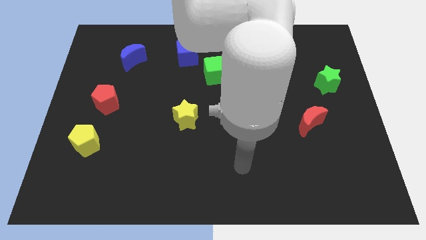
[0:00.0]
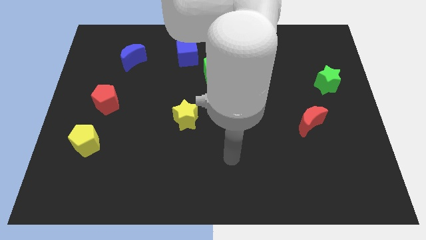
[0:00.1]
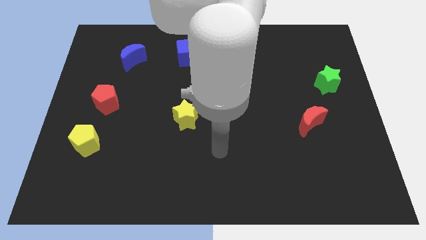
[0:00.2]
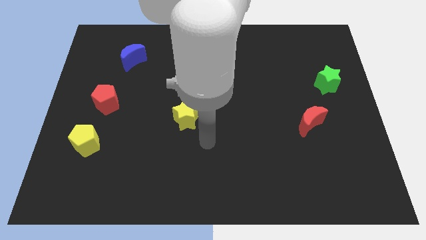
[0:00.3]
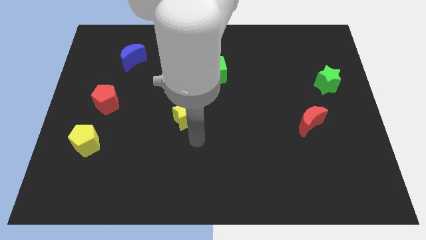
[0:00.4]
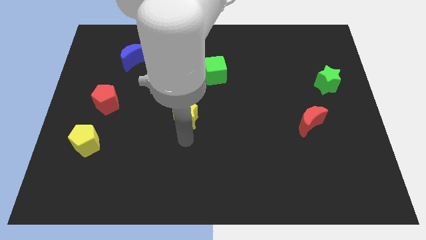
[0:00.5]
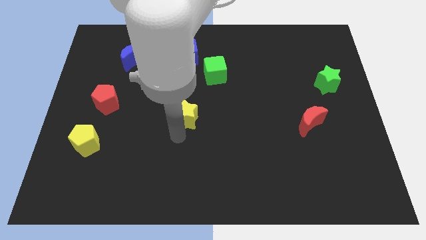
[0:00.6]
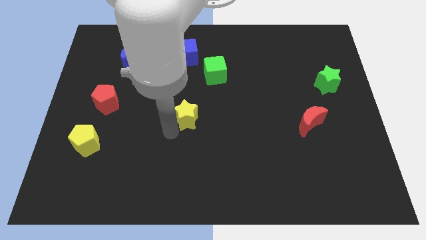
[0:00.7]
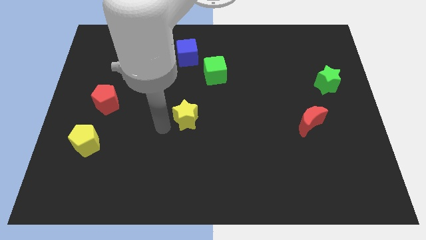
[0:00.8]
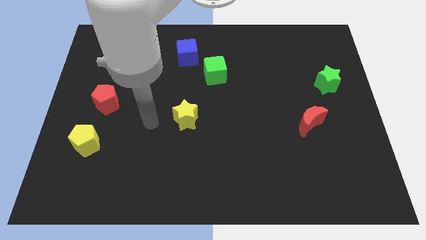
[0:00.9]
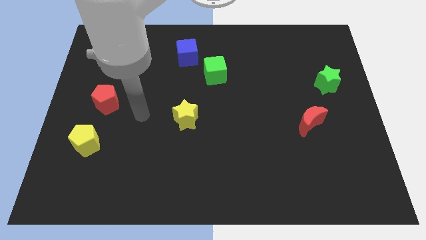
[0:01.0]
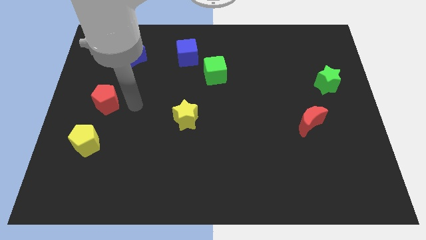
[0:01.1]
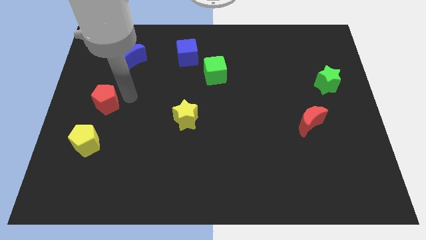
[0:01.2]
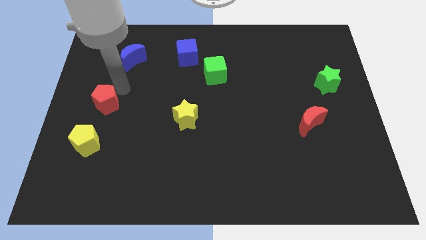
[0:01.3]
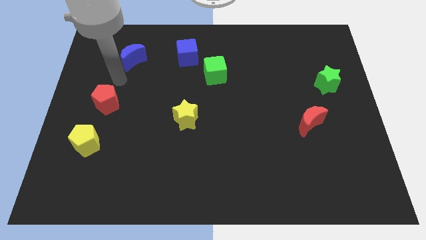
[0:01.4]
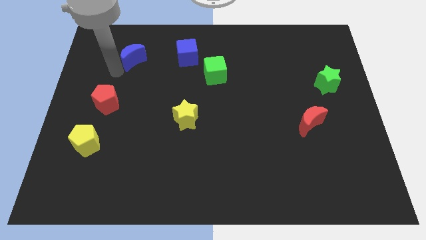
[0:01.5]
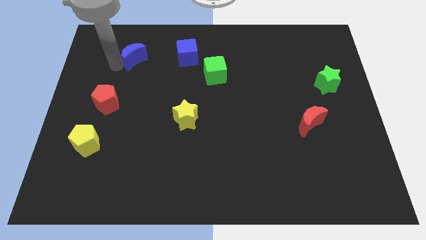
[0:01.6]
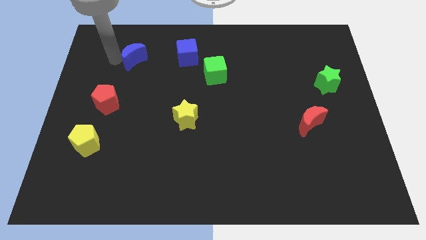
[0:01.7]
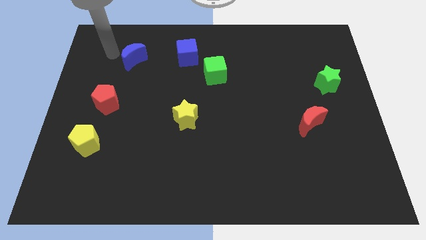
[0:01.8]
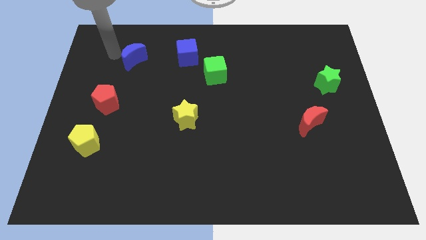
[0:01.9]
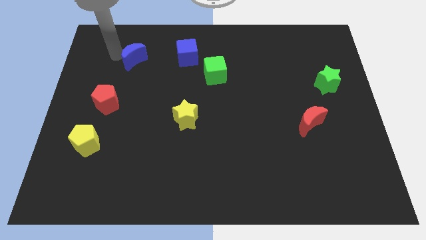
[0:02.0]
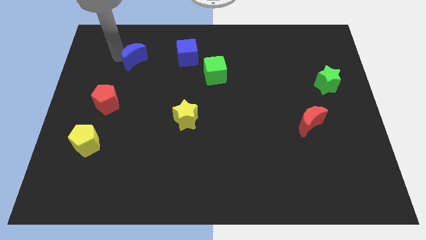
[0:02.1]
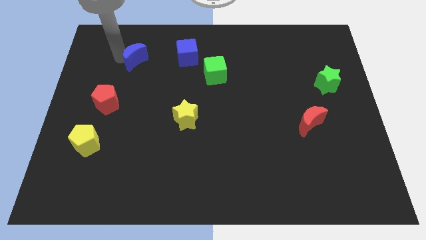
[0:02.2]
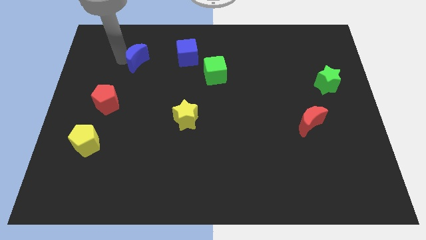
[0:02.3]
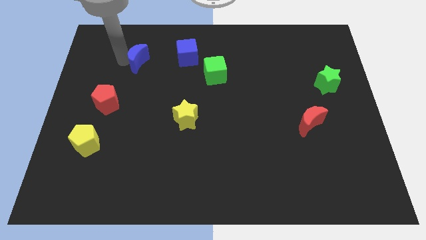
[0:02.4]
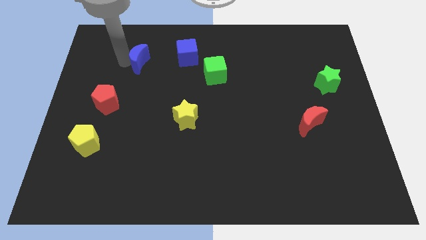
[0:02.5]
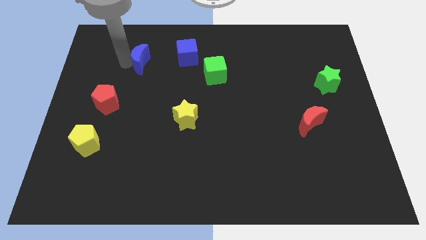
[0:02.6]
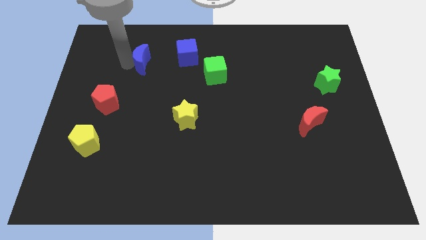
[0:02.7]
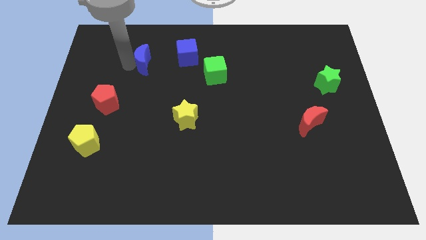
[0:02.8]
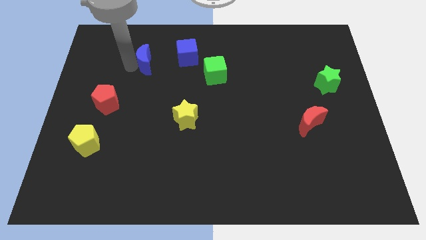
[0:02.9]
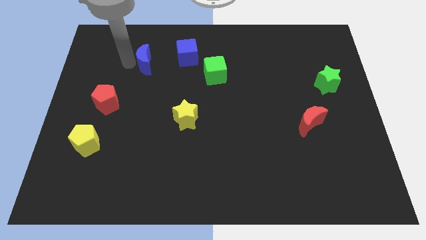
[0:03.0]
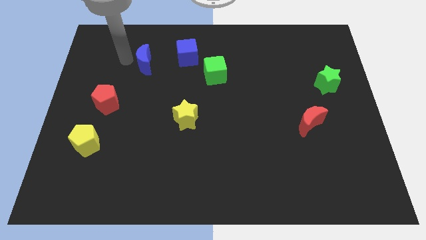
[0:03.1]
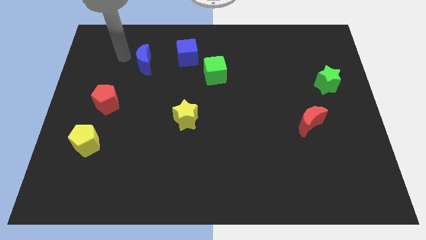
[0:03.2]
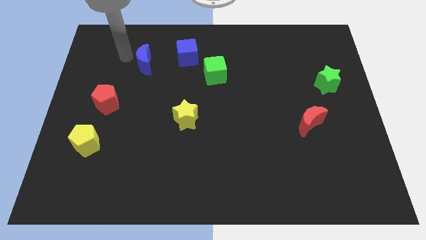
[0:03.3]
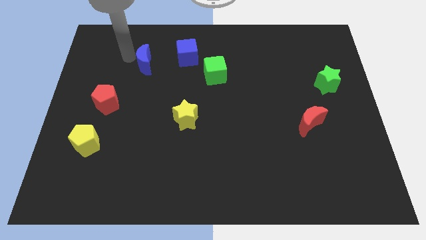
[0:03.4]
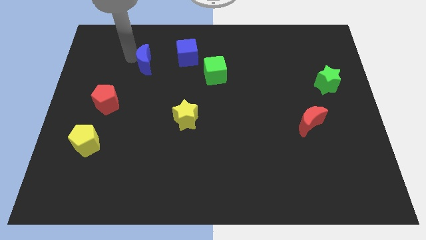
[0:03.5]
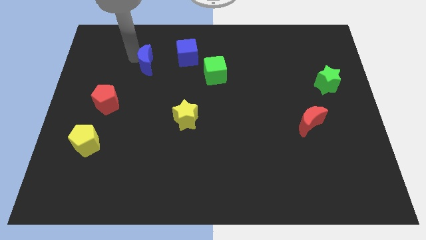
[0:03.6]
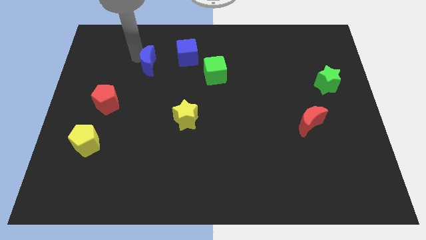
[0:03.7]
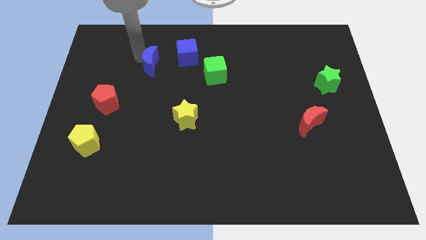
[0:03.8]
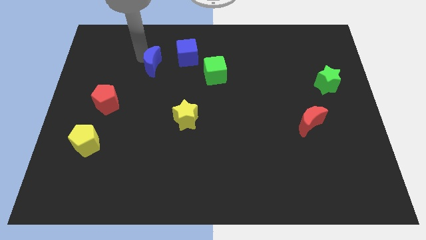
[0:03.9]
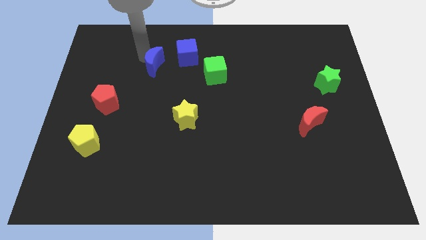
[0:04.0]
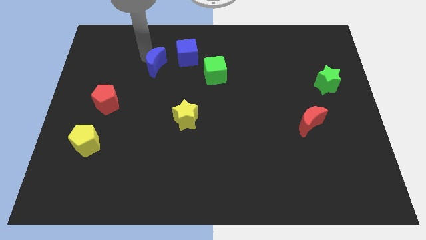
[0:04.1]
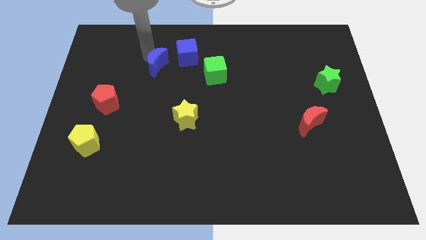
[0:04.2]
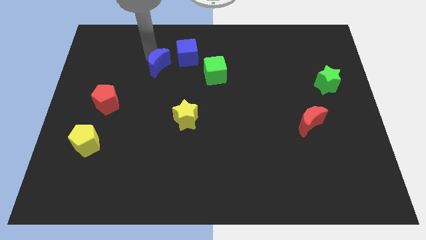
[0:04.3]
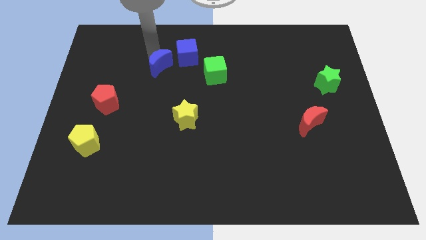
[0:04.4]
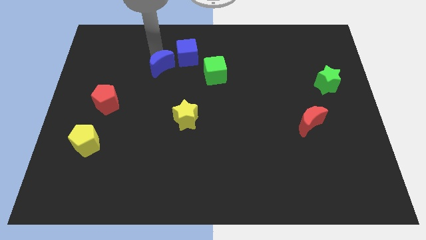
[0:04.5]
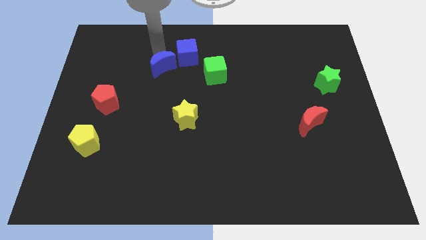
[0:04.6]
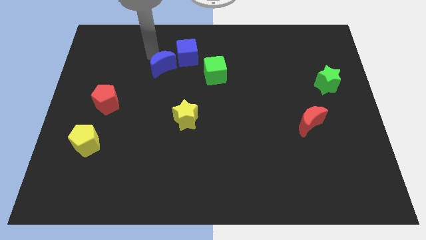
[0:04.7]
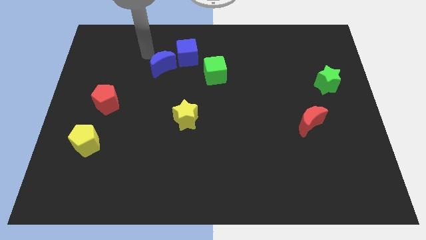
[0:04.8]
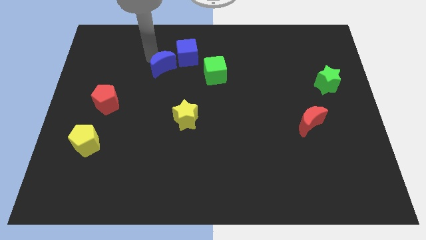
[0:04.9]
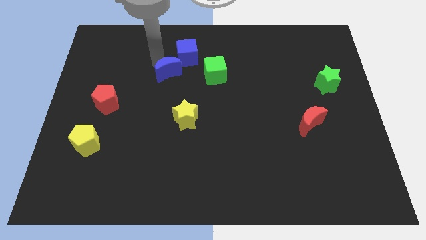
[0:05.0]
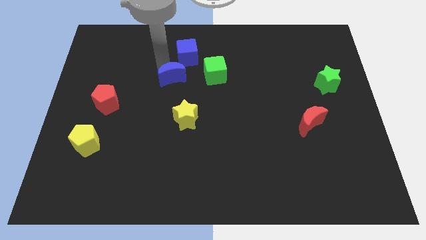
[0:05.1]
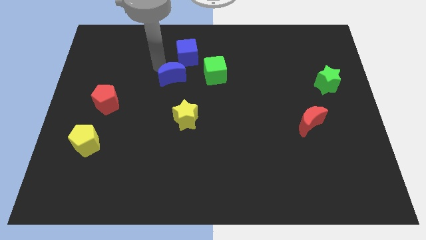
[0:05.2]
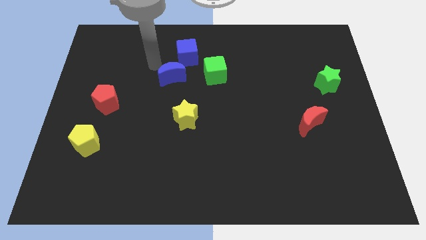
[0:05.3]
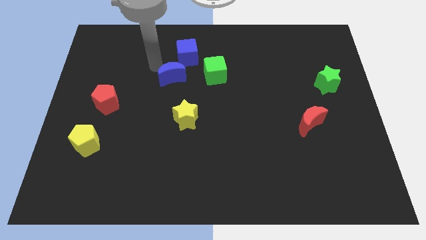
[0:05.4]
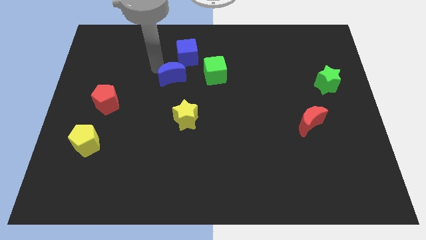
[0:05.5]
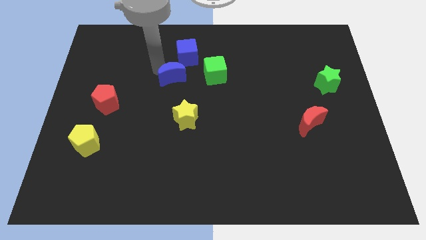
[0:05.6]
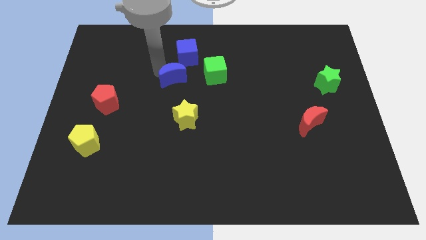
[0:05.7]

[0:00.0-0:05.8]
put the blue moon to the center of the board
